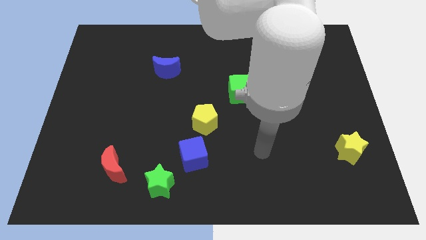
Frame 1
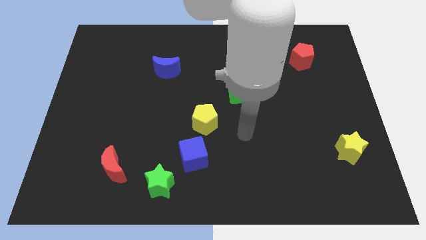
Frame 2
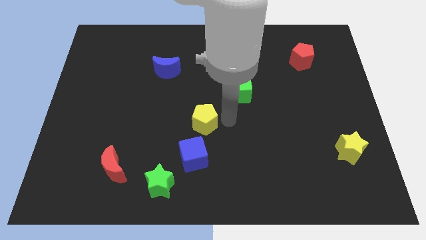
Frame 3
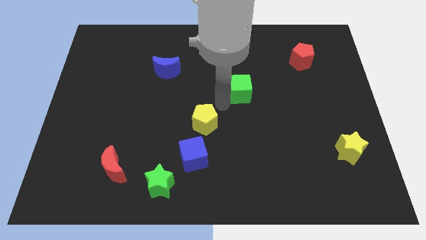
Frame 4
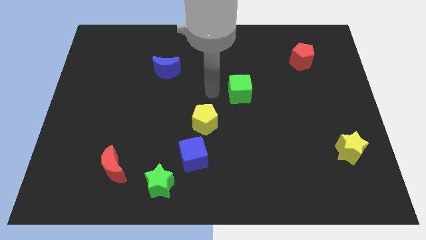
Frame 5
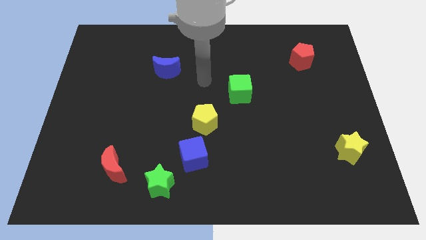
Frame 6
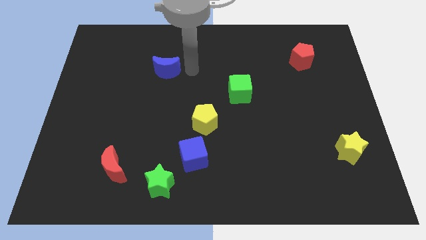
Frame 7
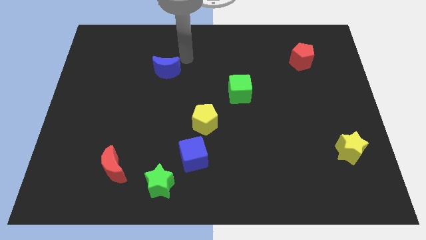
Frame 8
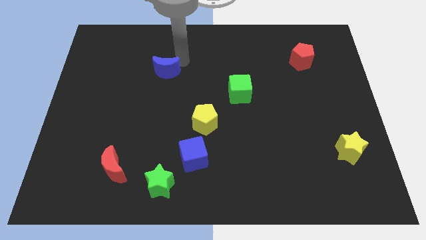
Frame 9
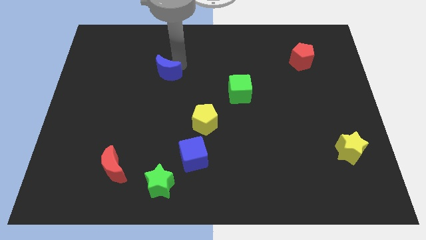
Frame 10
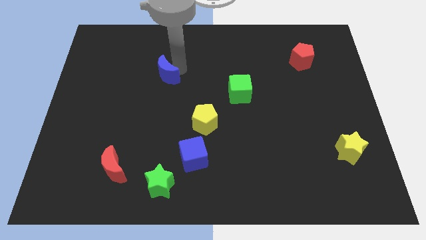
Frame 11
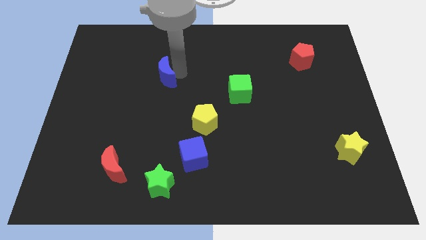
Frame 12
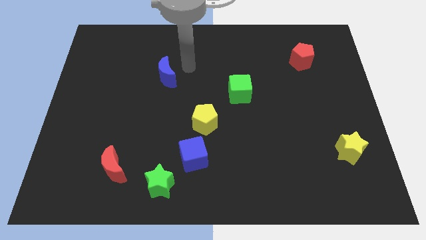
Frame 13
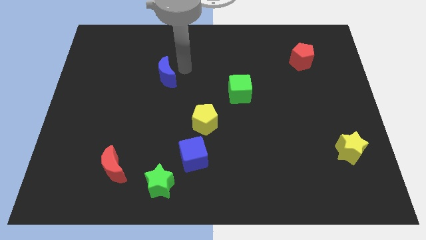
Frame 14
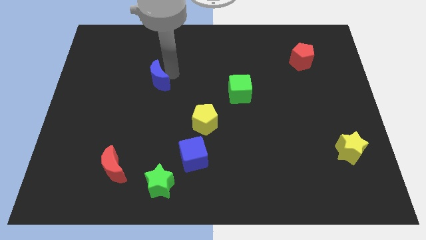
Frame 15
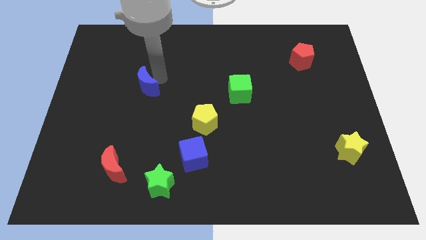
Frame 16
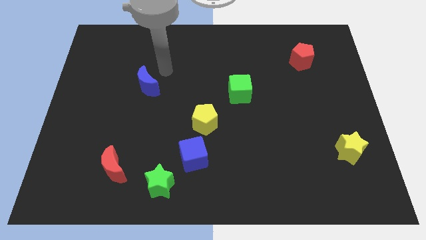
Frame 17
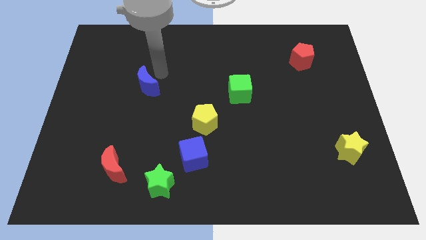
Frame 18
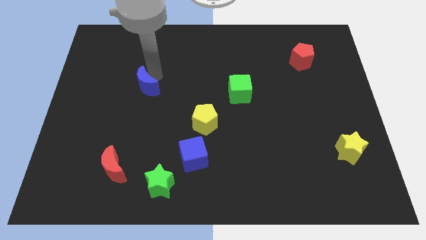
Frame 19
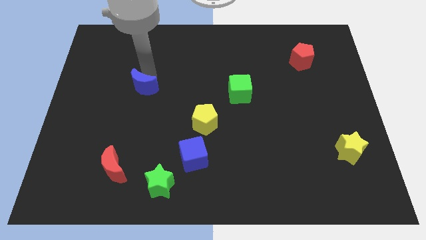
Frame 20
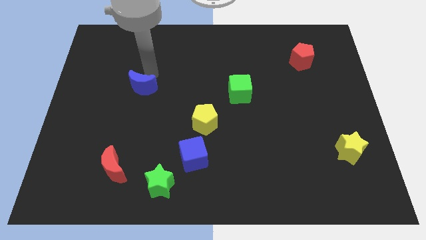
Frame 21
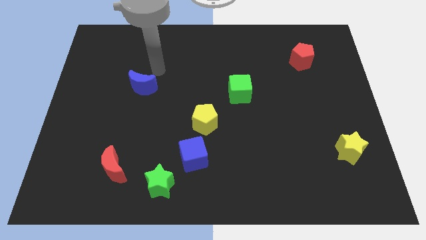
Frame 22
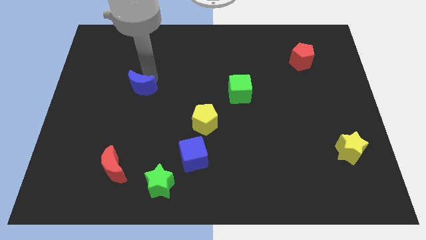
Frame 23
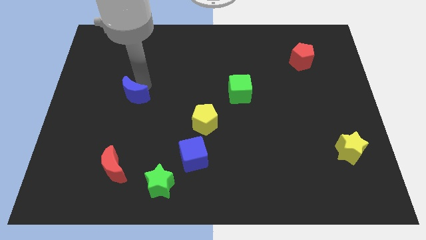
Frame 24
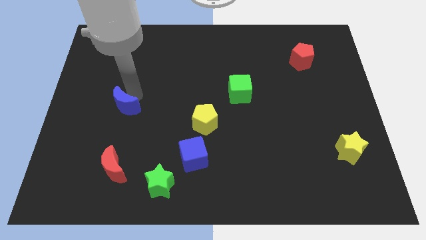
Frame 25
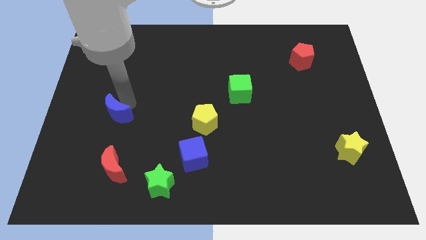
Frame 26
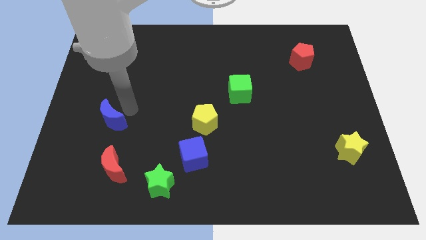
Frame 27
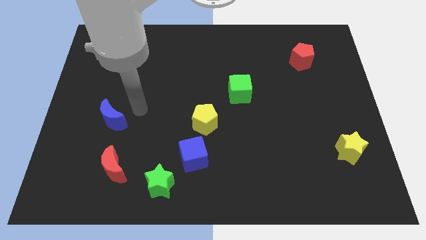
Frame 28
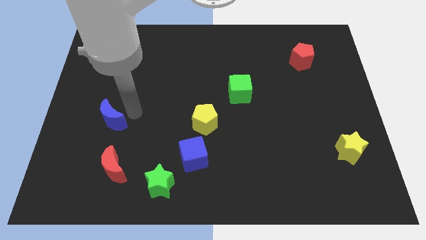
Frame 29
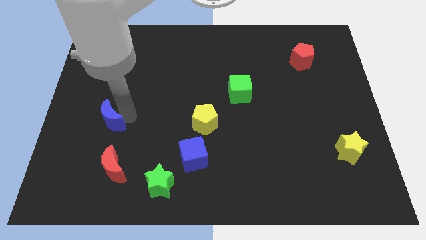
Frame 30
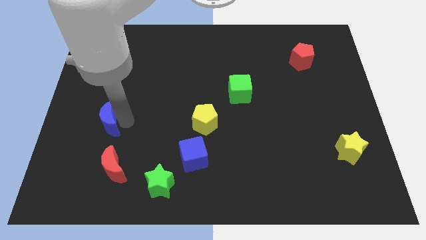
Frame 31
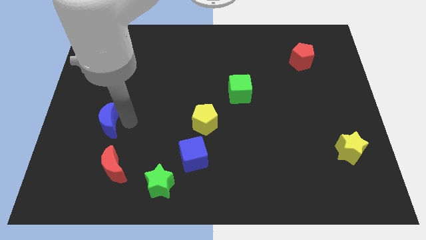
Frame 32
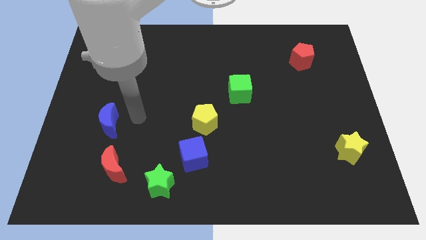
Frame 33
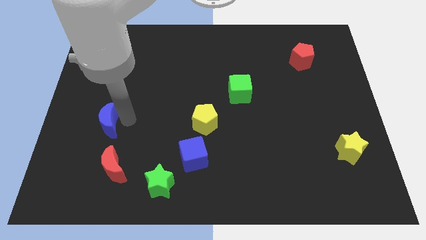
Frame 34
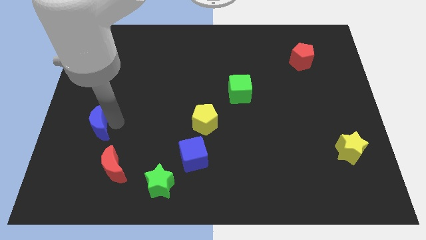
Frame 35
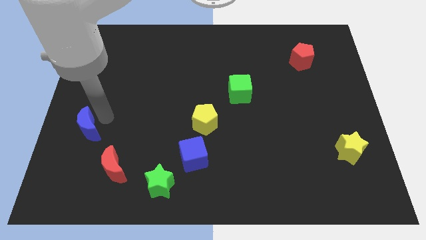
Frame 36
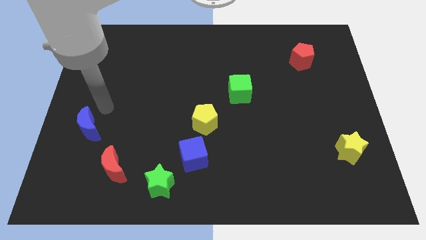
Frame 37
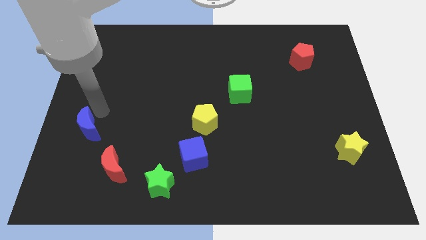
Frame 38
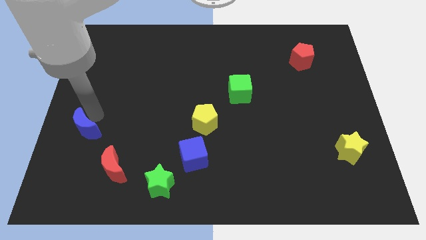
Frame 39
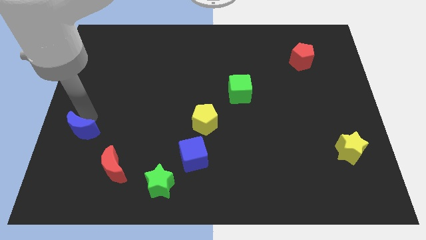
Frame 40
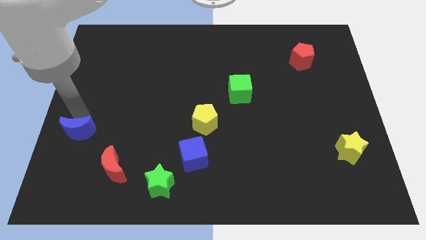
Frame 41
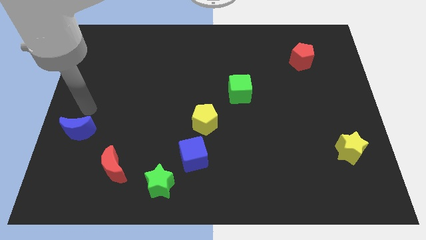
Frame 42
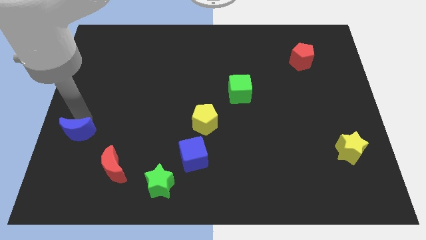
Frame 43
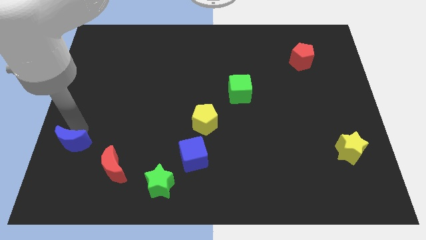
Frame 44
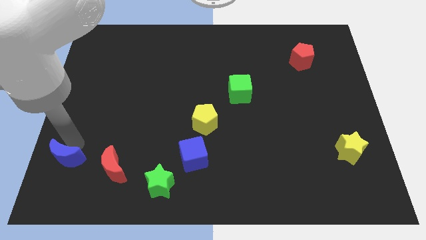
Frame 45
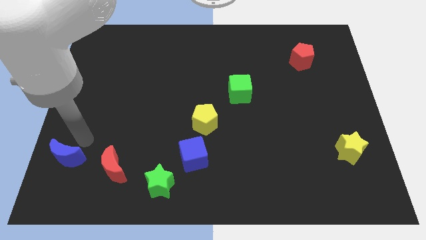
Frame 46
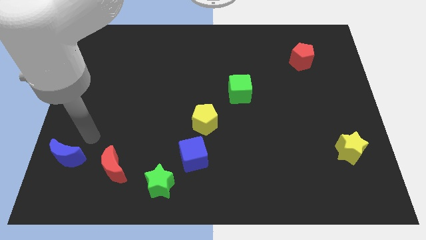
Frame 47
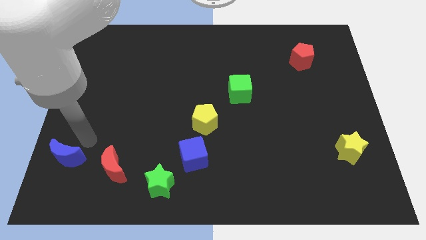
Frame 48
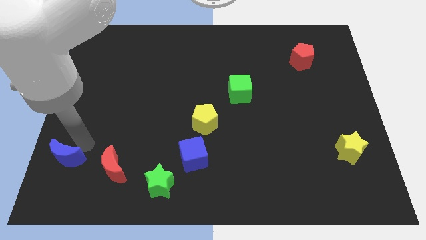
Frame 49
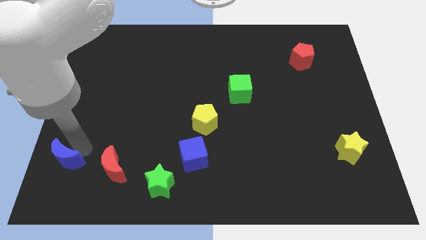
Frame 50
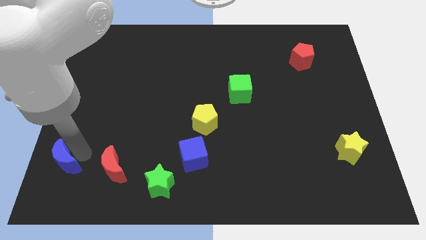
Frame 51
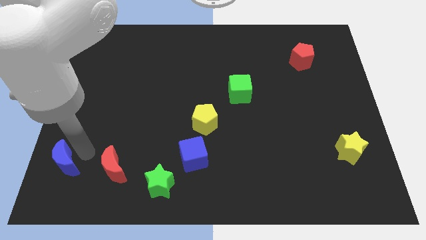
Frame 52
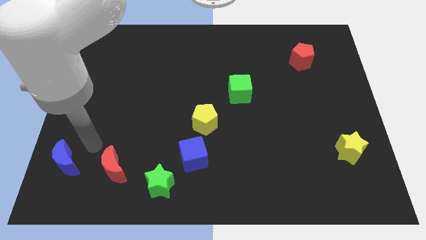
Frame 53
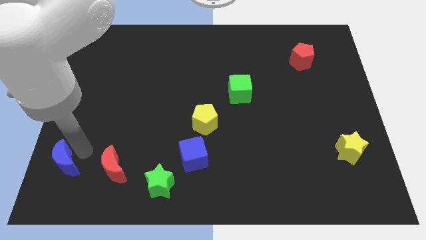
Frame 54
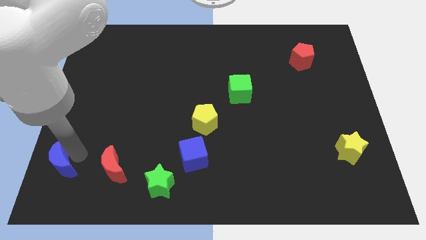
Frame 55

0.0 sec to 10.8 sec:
push the blue moon to the bottom left of the board

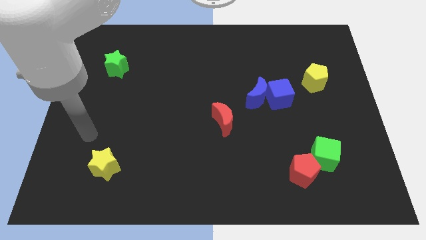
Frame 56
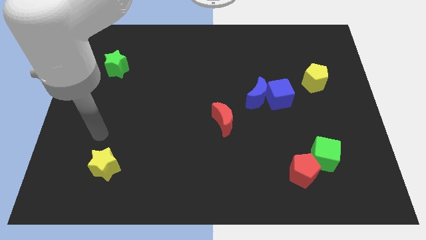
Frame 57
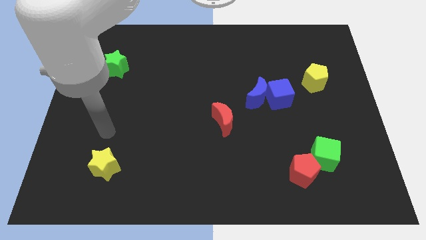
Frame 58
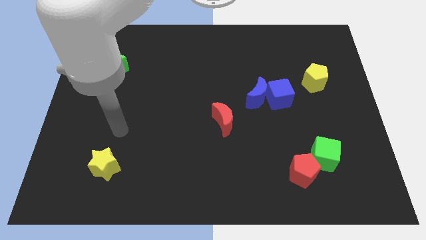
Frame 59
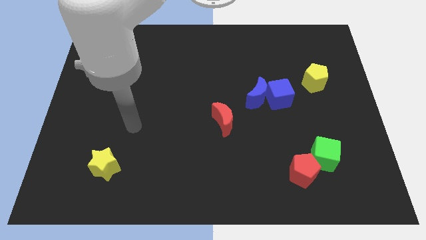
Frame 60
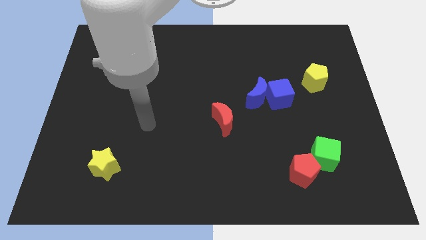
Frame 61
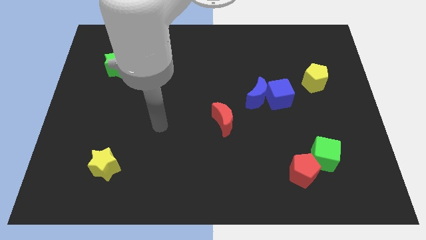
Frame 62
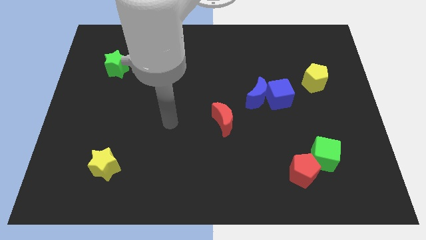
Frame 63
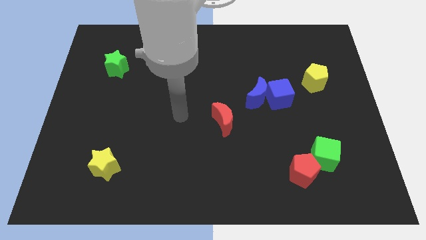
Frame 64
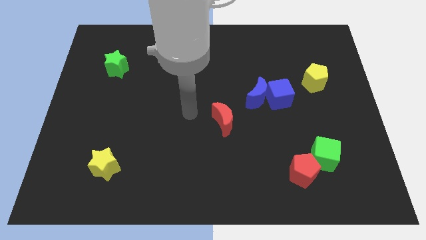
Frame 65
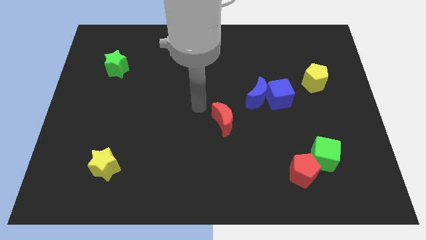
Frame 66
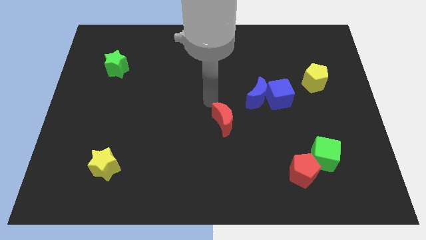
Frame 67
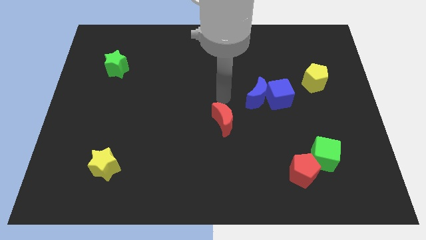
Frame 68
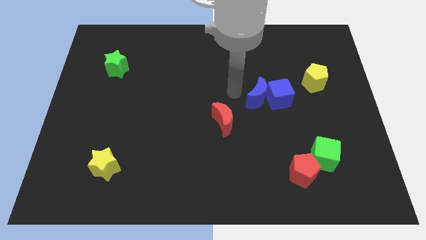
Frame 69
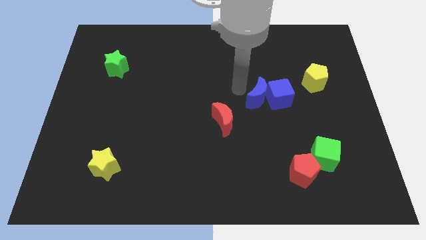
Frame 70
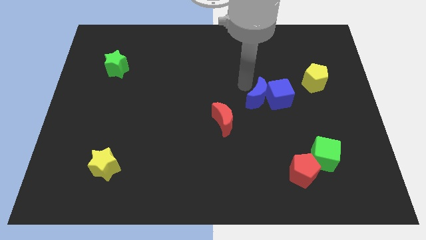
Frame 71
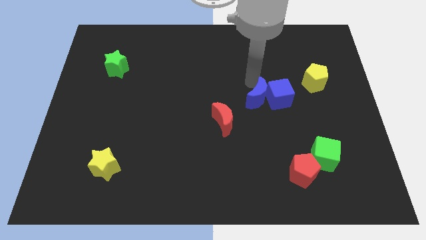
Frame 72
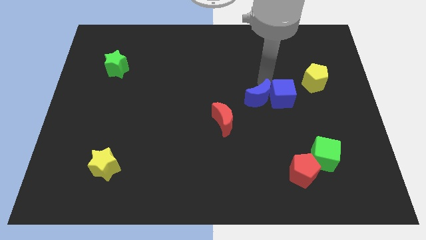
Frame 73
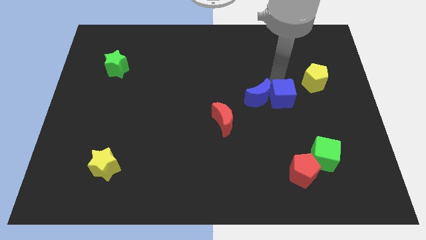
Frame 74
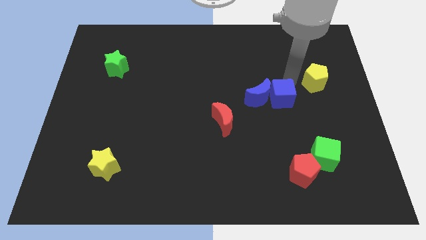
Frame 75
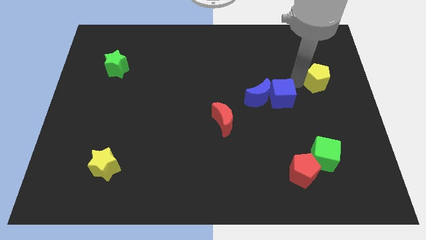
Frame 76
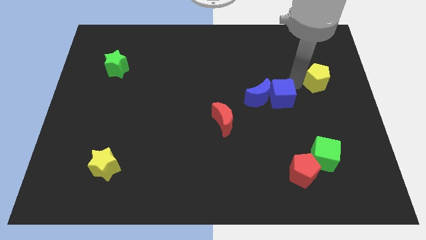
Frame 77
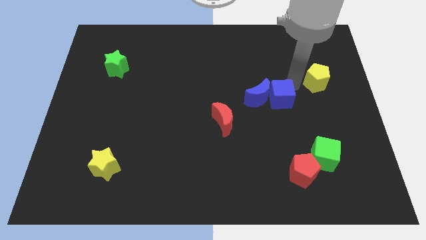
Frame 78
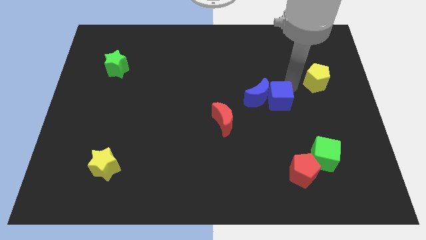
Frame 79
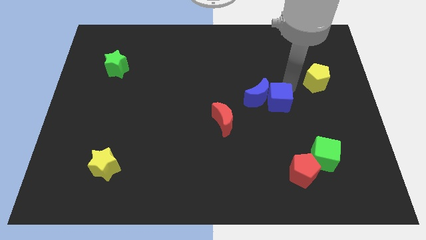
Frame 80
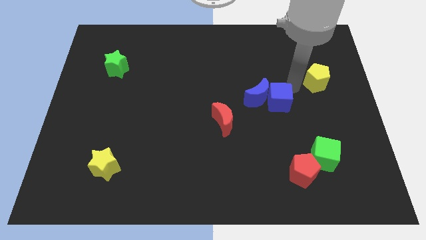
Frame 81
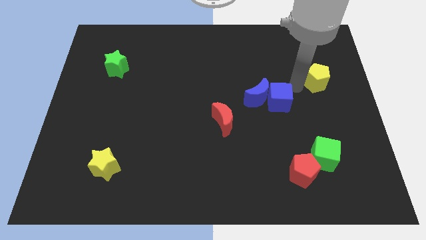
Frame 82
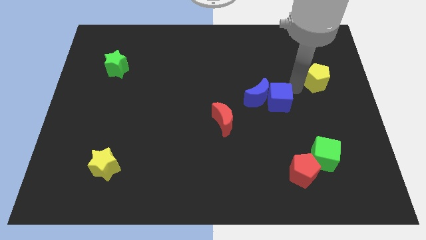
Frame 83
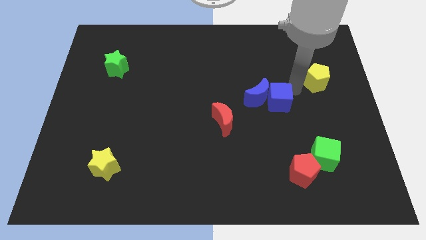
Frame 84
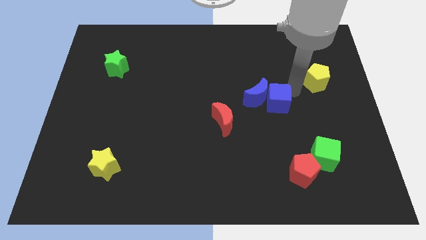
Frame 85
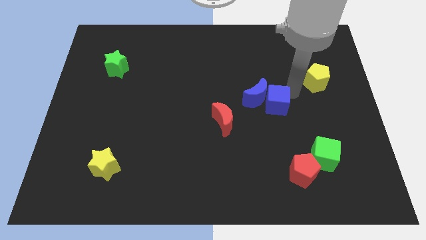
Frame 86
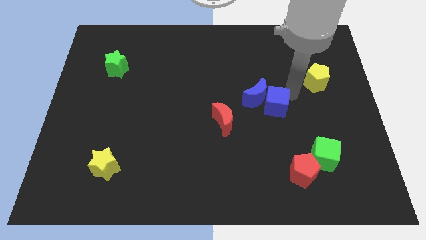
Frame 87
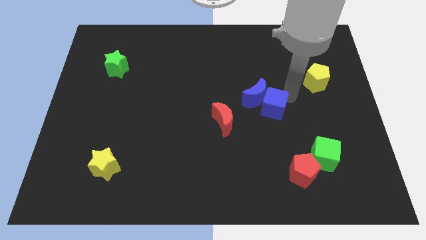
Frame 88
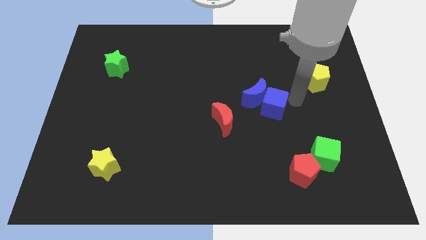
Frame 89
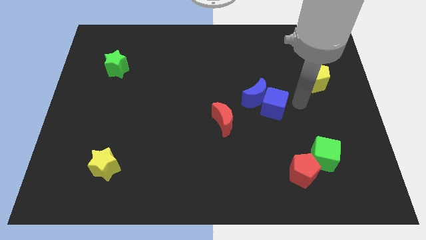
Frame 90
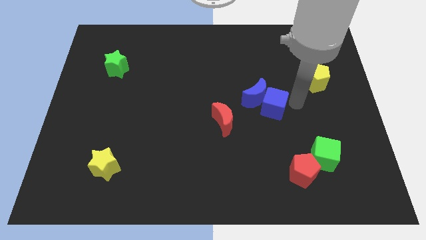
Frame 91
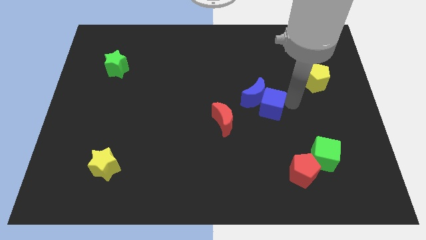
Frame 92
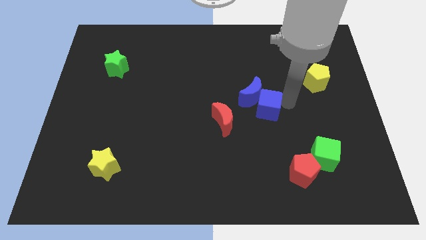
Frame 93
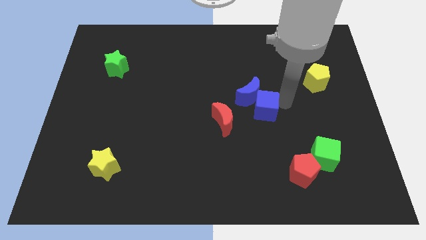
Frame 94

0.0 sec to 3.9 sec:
slide the blue cube to the center of the board
